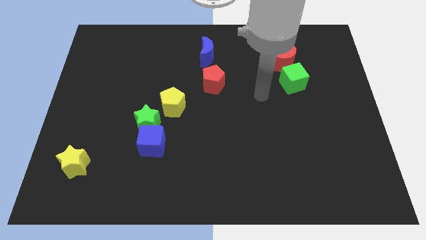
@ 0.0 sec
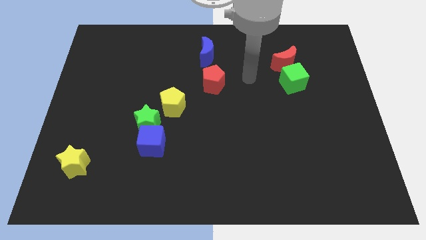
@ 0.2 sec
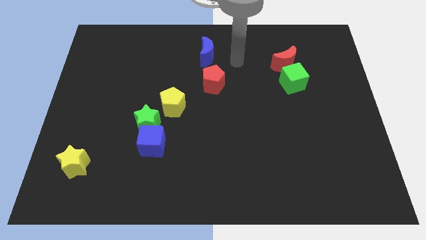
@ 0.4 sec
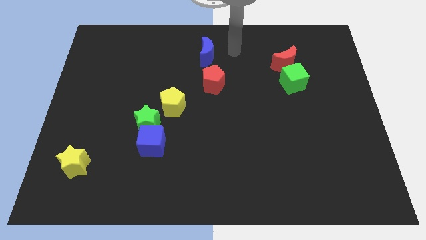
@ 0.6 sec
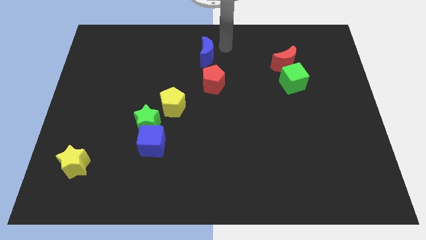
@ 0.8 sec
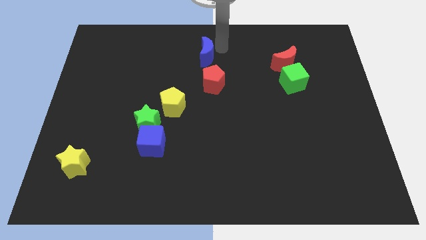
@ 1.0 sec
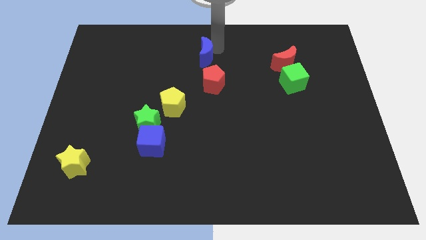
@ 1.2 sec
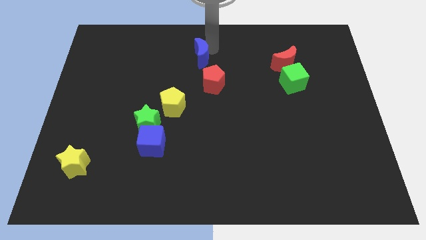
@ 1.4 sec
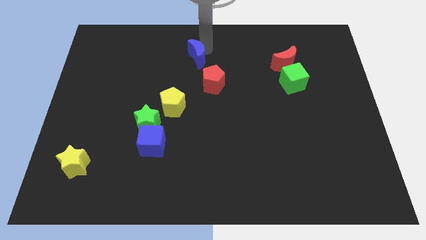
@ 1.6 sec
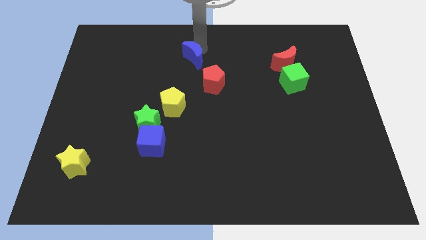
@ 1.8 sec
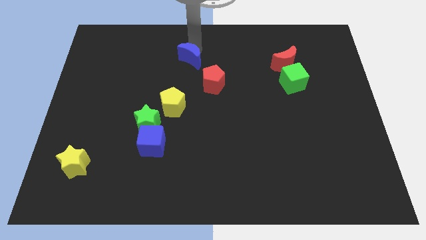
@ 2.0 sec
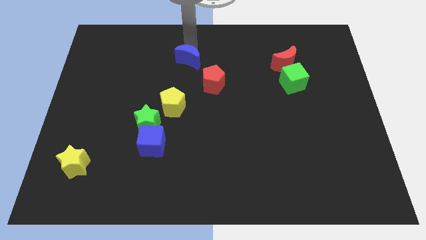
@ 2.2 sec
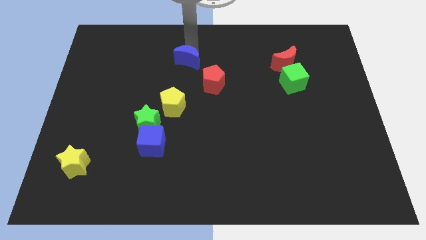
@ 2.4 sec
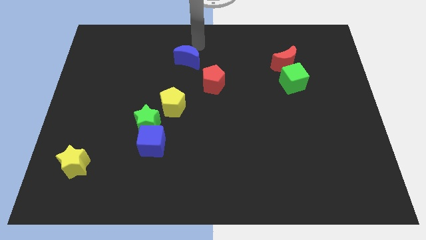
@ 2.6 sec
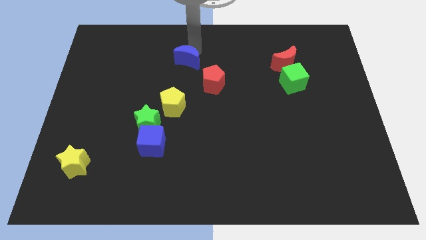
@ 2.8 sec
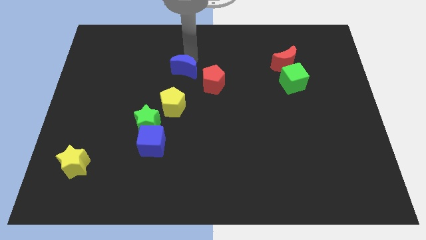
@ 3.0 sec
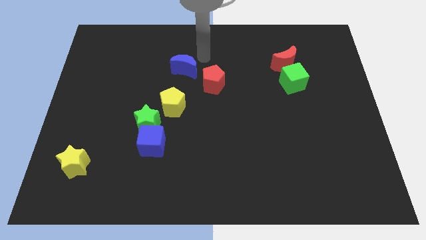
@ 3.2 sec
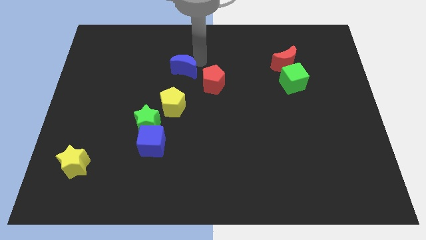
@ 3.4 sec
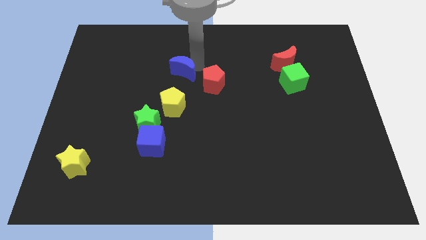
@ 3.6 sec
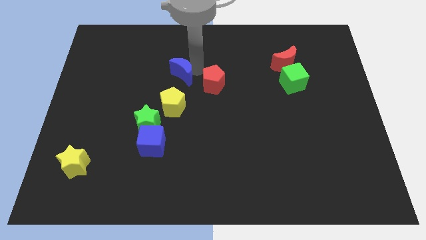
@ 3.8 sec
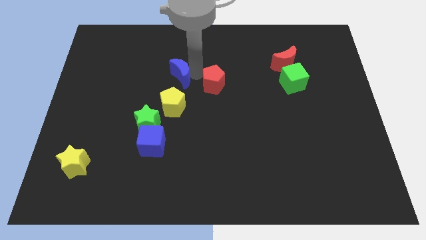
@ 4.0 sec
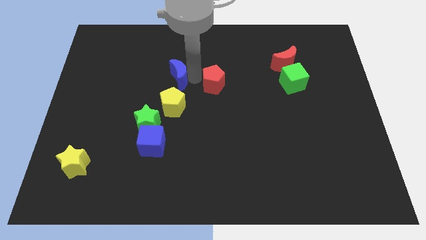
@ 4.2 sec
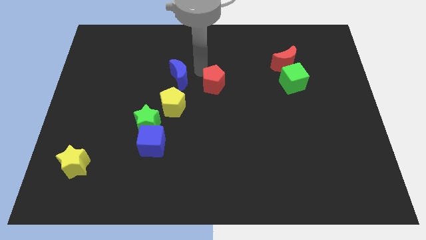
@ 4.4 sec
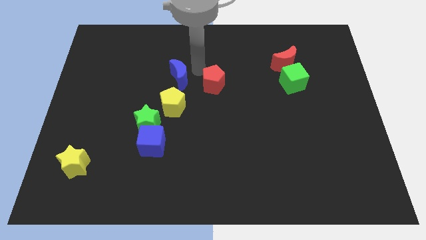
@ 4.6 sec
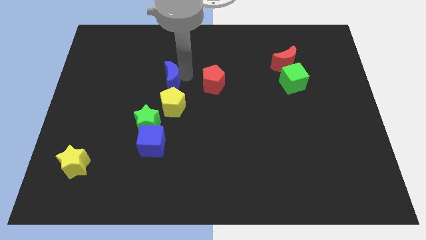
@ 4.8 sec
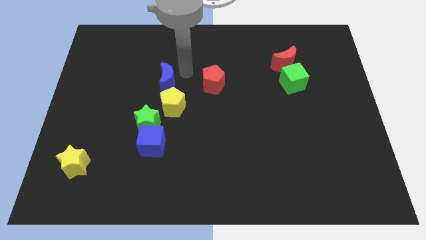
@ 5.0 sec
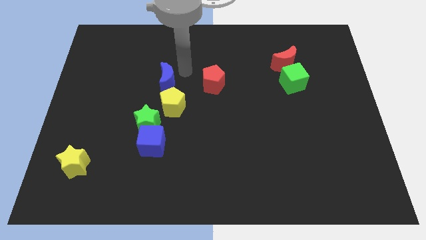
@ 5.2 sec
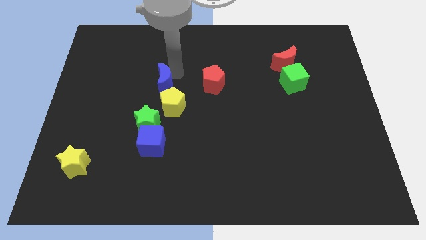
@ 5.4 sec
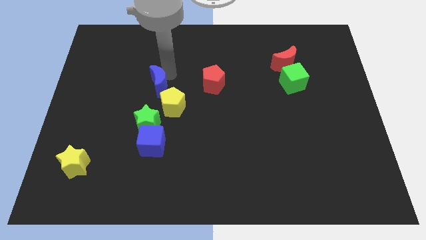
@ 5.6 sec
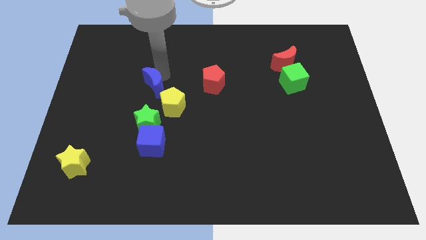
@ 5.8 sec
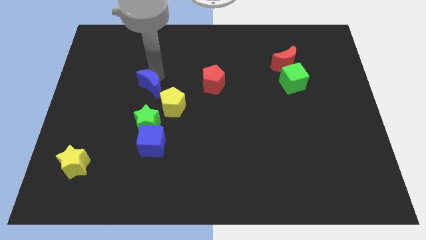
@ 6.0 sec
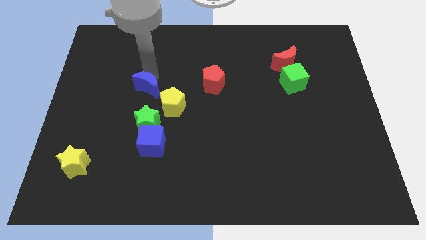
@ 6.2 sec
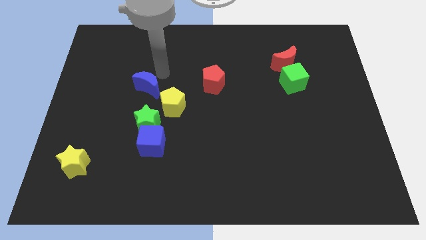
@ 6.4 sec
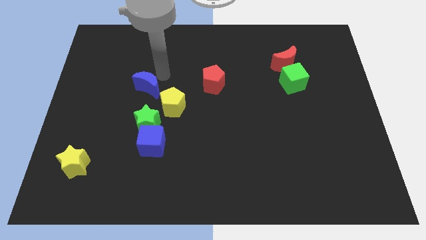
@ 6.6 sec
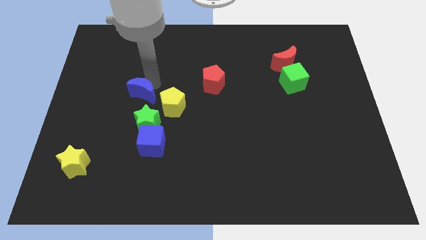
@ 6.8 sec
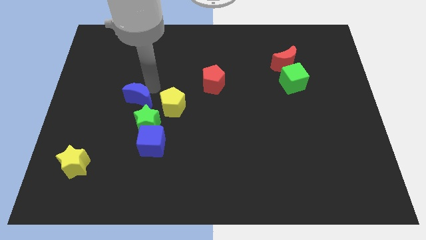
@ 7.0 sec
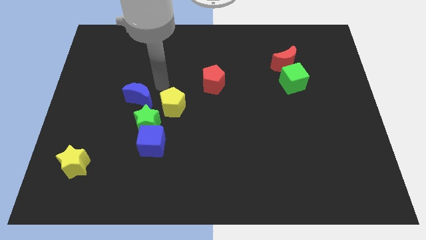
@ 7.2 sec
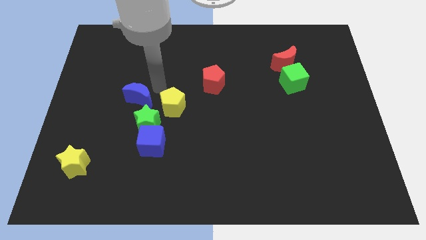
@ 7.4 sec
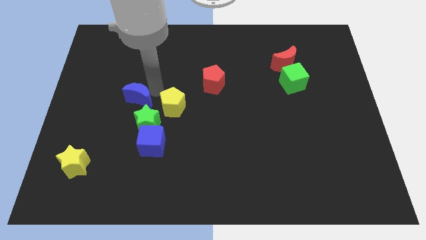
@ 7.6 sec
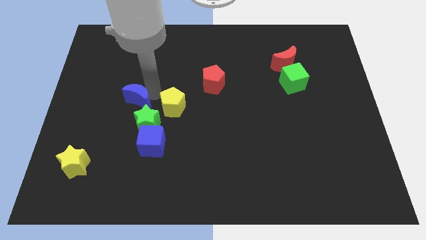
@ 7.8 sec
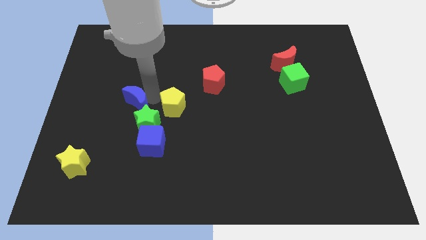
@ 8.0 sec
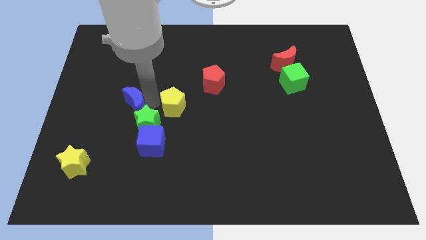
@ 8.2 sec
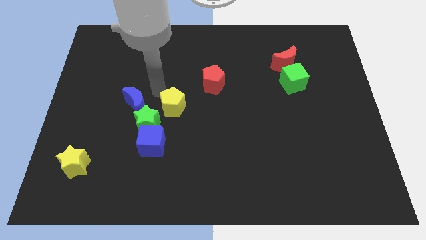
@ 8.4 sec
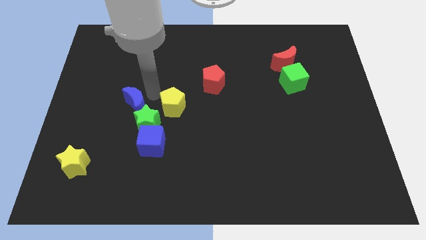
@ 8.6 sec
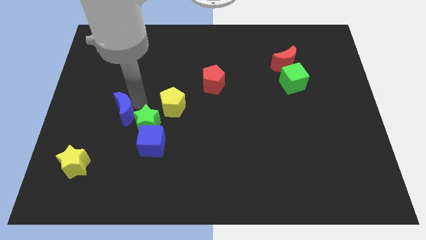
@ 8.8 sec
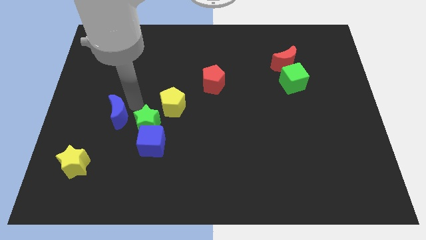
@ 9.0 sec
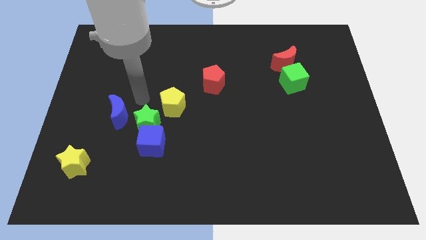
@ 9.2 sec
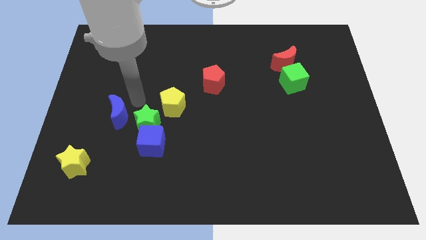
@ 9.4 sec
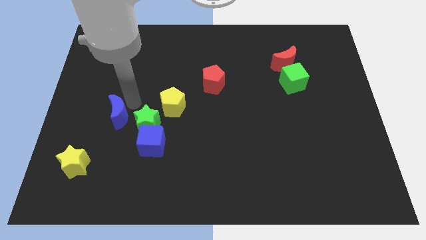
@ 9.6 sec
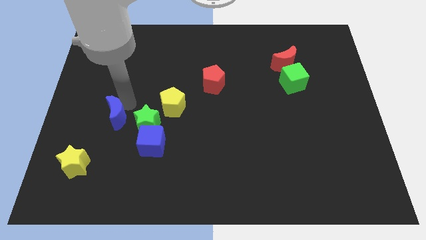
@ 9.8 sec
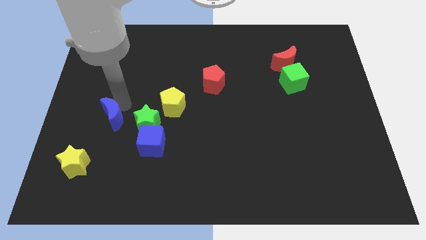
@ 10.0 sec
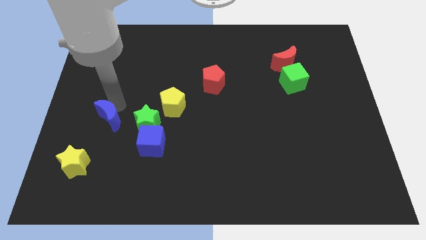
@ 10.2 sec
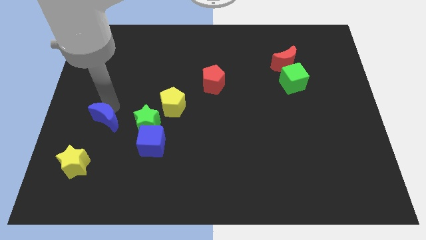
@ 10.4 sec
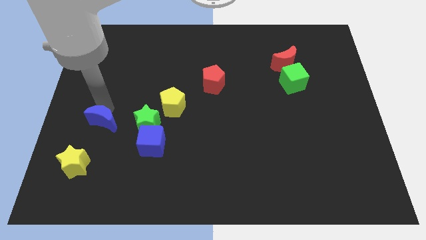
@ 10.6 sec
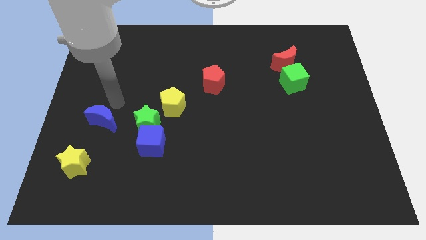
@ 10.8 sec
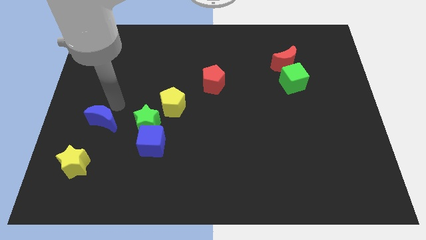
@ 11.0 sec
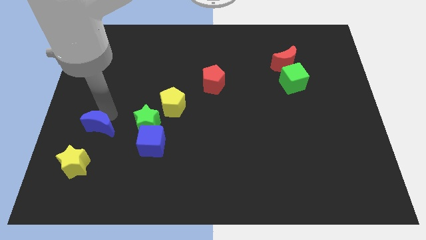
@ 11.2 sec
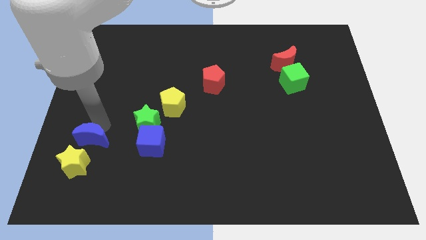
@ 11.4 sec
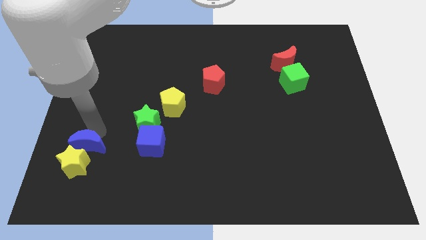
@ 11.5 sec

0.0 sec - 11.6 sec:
put the blue moon towards the yellow star

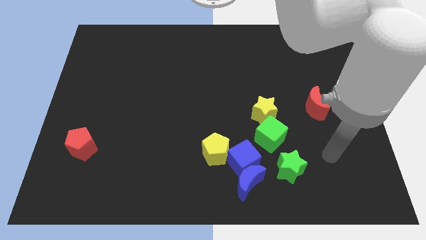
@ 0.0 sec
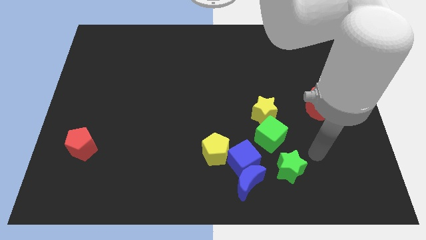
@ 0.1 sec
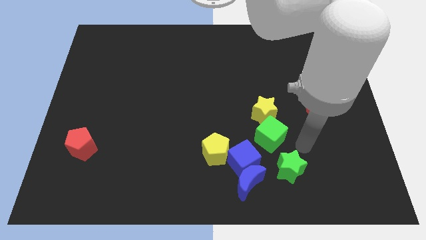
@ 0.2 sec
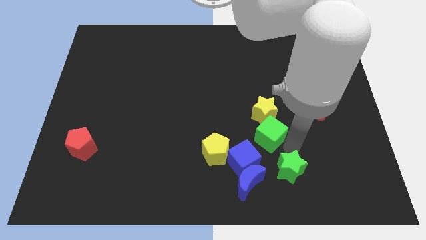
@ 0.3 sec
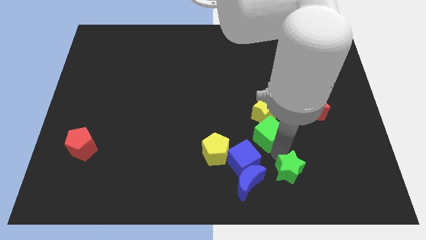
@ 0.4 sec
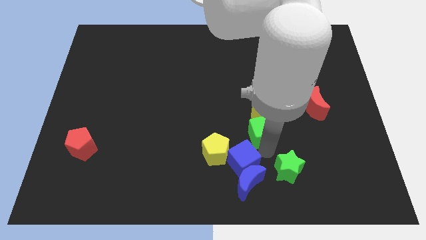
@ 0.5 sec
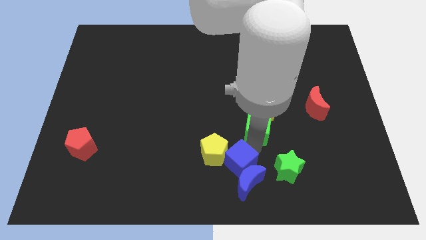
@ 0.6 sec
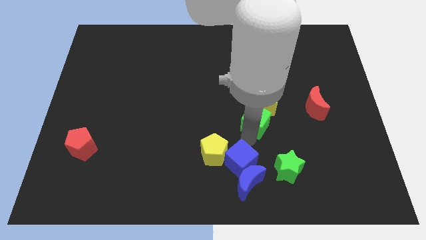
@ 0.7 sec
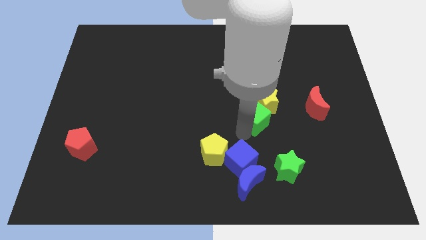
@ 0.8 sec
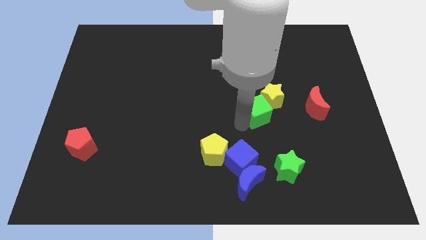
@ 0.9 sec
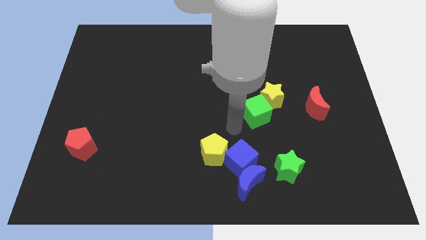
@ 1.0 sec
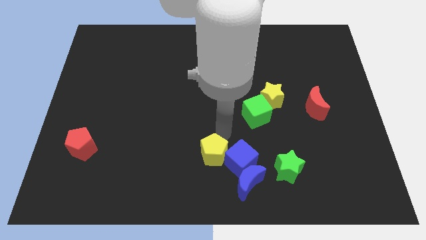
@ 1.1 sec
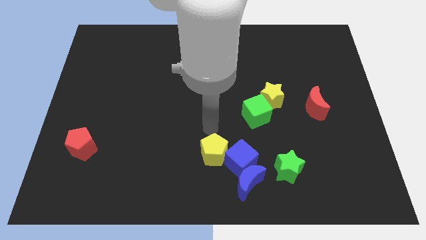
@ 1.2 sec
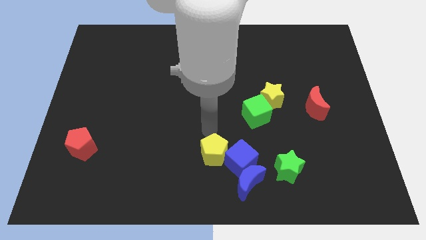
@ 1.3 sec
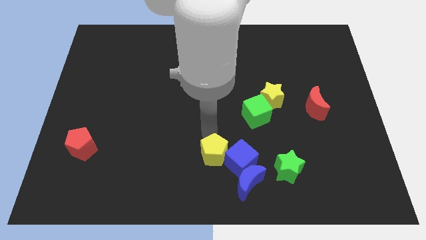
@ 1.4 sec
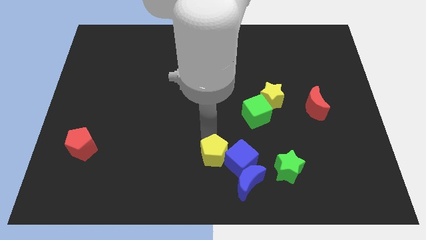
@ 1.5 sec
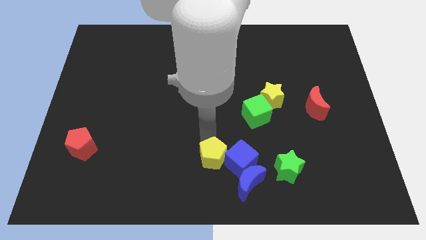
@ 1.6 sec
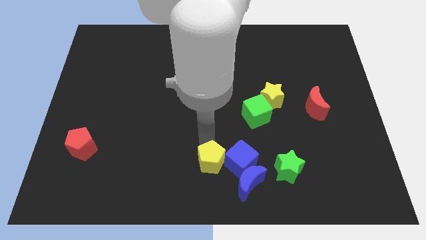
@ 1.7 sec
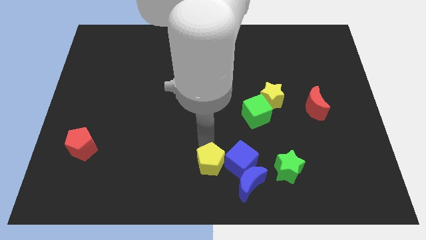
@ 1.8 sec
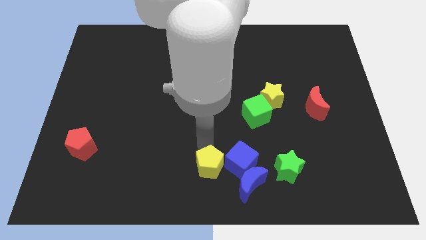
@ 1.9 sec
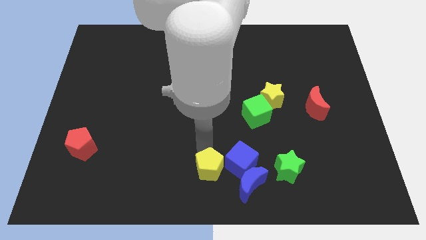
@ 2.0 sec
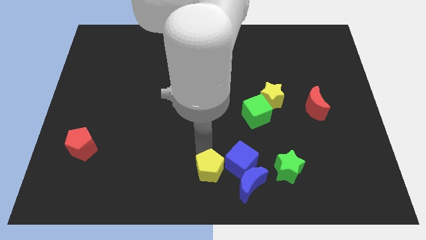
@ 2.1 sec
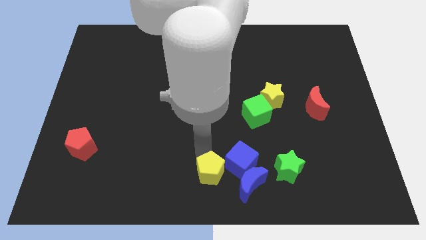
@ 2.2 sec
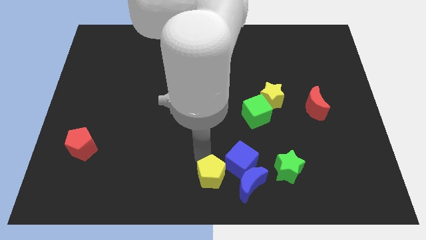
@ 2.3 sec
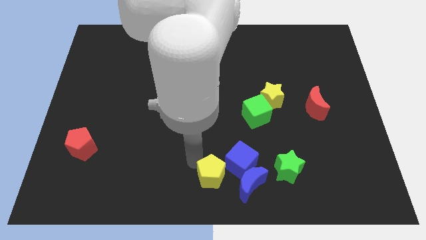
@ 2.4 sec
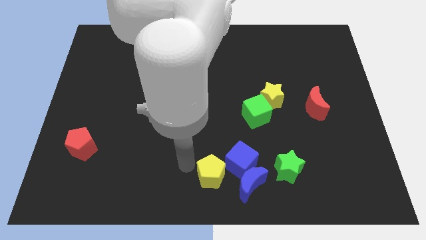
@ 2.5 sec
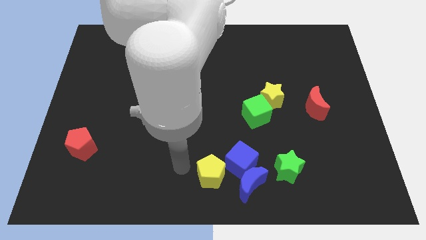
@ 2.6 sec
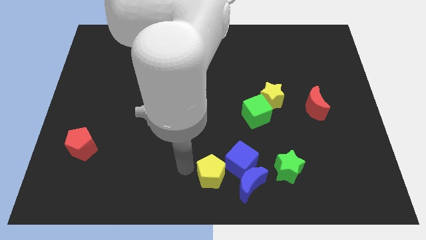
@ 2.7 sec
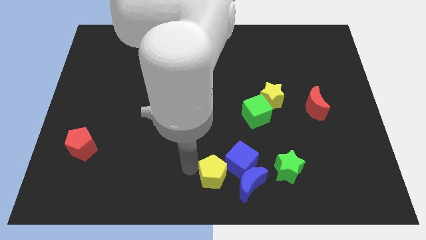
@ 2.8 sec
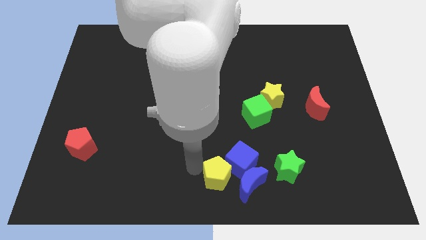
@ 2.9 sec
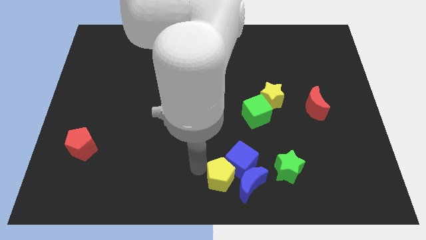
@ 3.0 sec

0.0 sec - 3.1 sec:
move the yellow pentagon to the blue moon
